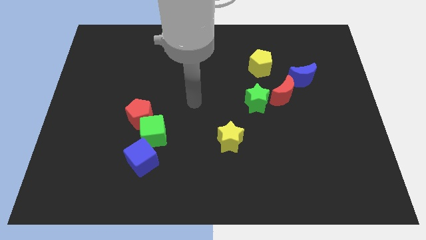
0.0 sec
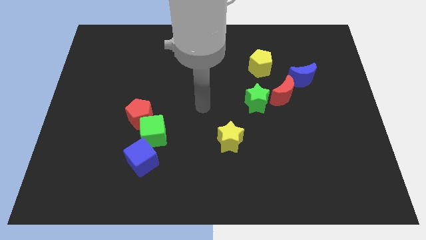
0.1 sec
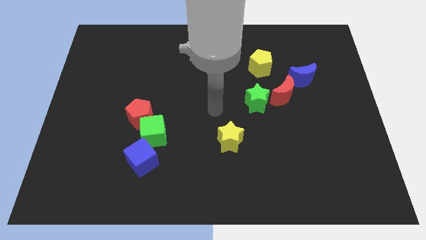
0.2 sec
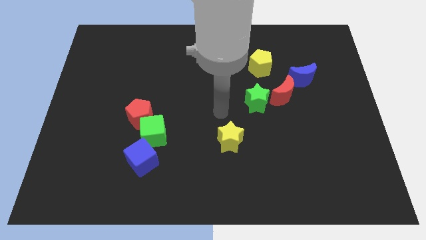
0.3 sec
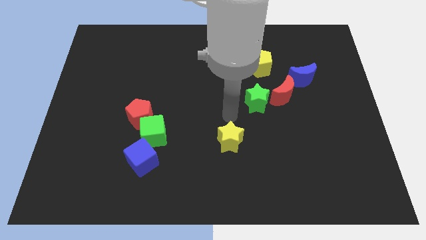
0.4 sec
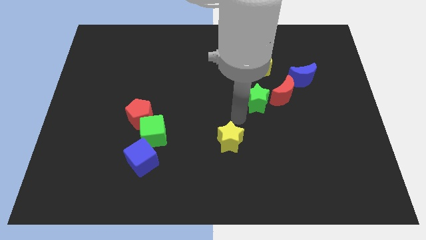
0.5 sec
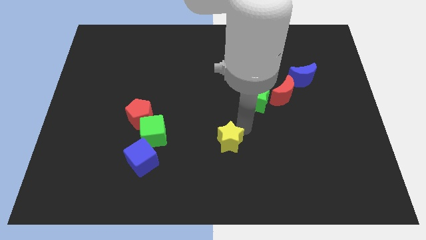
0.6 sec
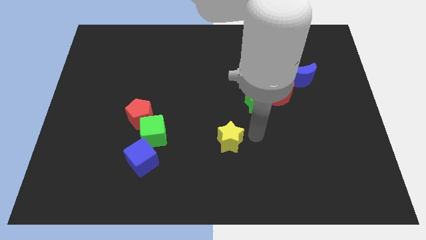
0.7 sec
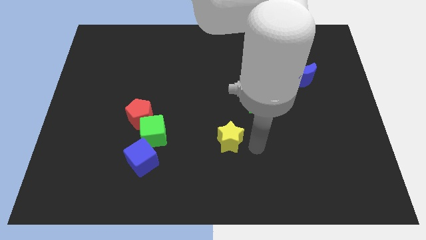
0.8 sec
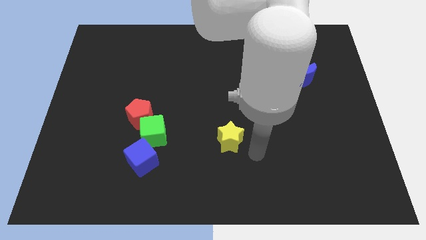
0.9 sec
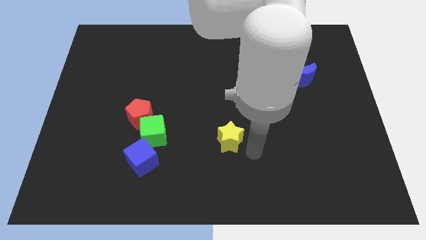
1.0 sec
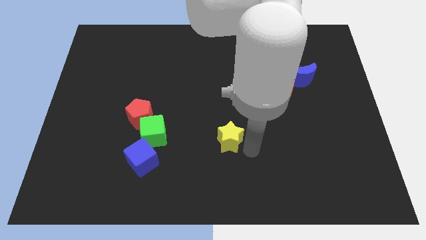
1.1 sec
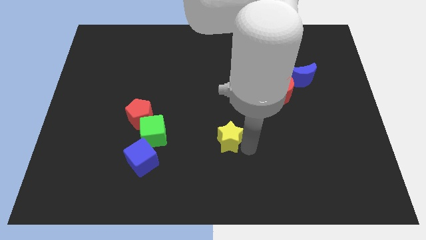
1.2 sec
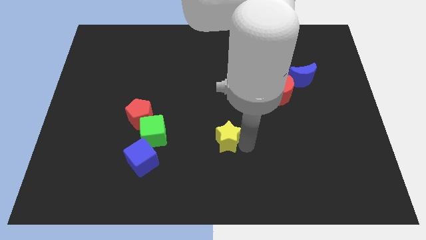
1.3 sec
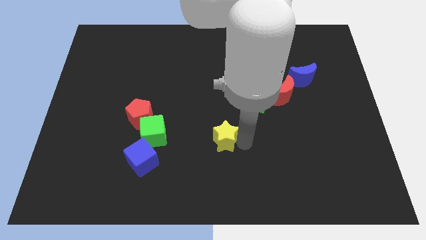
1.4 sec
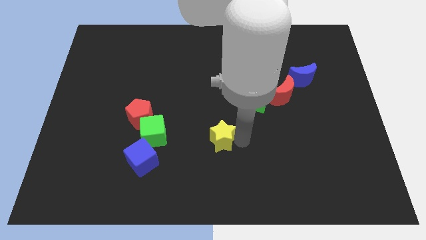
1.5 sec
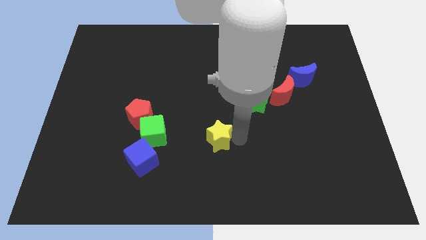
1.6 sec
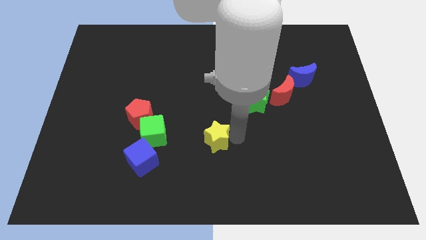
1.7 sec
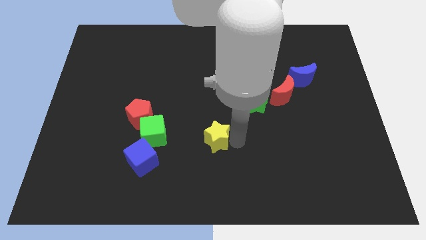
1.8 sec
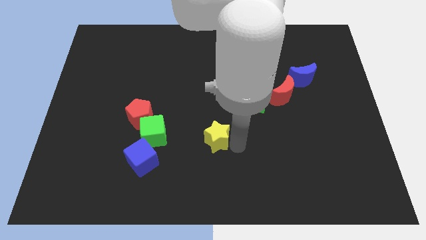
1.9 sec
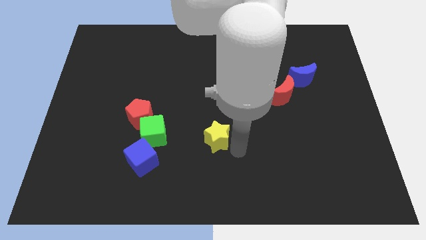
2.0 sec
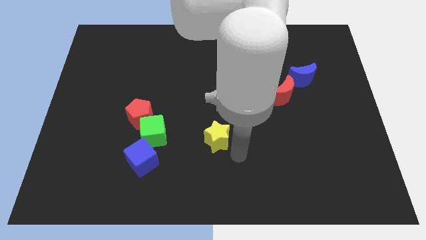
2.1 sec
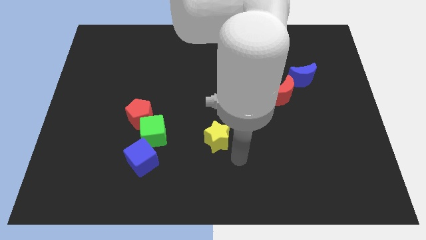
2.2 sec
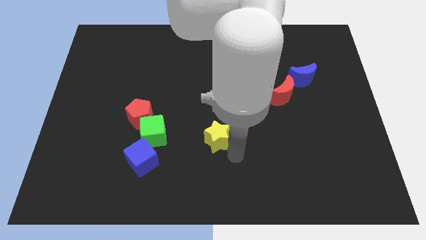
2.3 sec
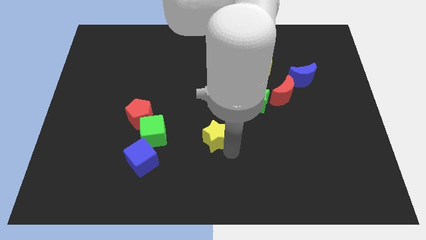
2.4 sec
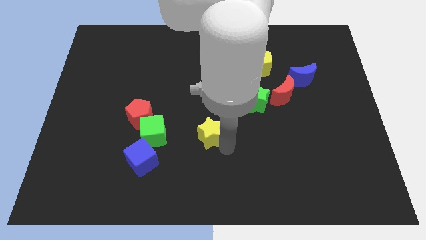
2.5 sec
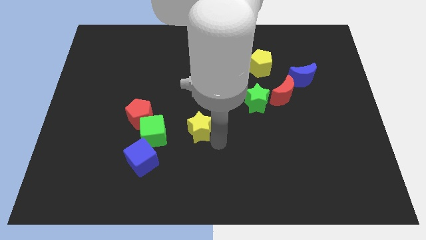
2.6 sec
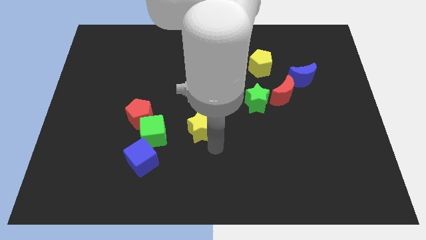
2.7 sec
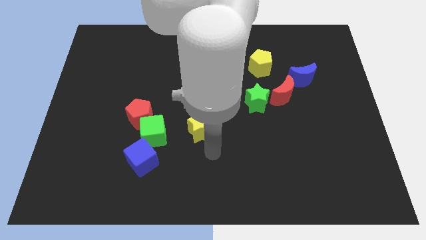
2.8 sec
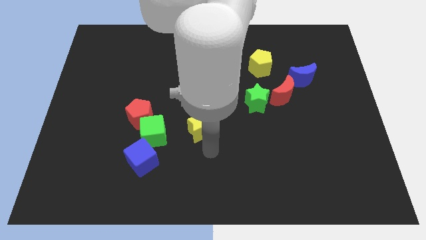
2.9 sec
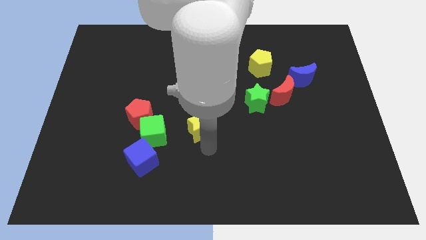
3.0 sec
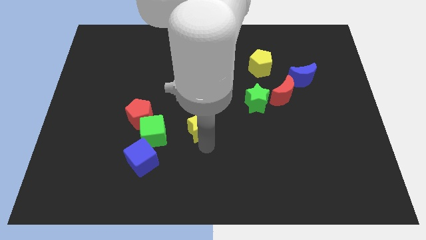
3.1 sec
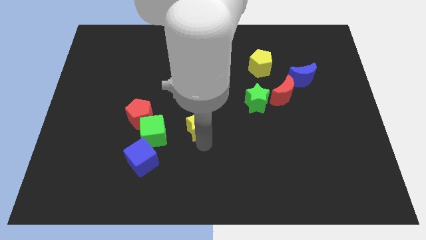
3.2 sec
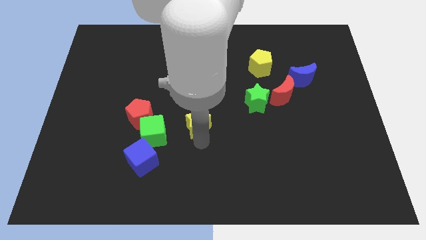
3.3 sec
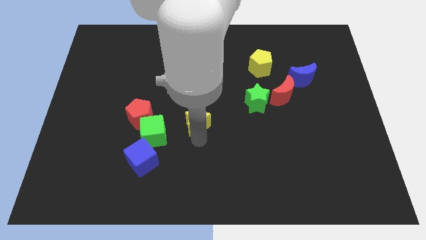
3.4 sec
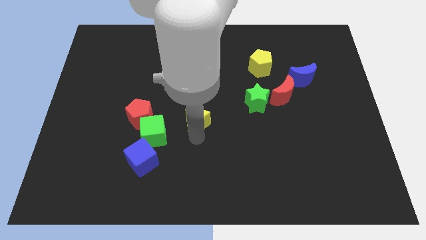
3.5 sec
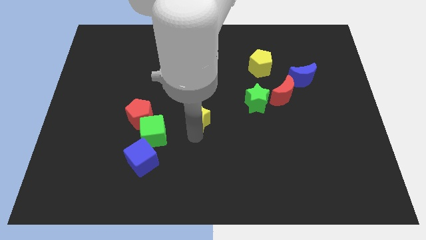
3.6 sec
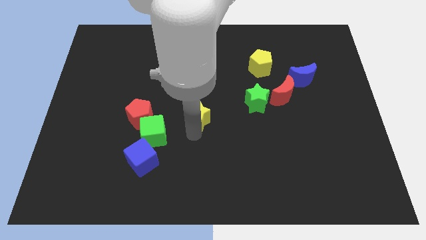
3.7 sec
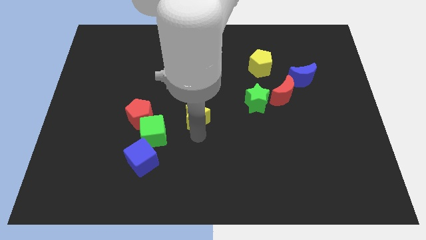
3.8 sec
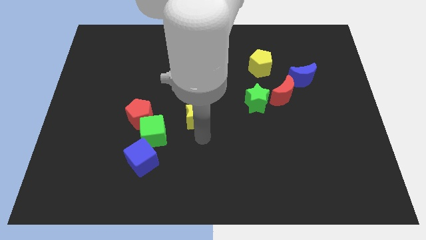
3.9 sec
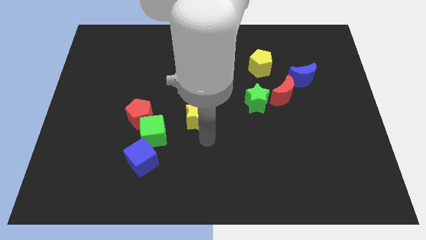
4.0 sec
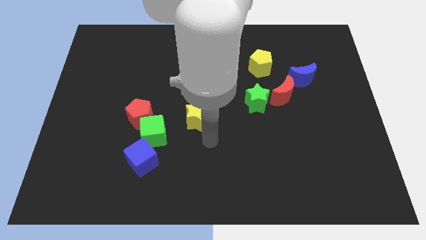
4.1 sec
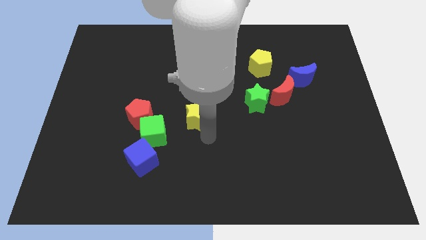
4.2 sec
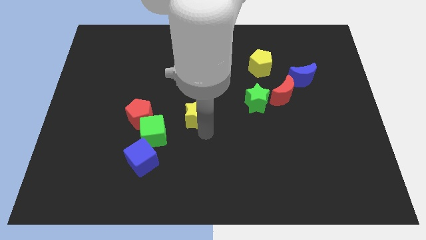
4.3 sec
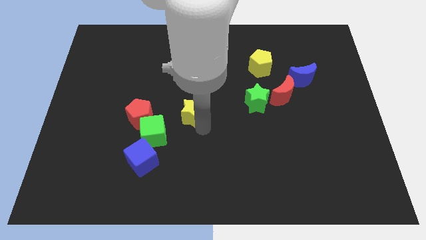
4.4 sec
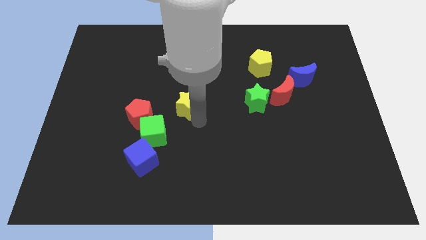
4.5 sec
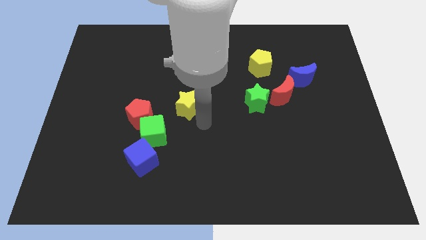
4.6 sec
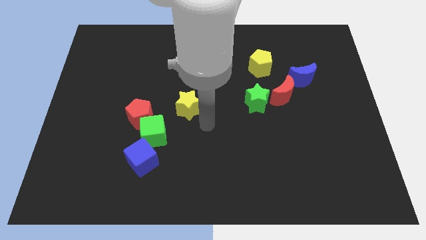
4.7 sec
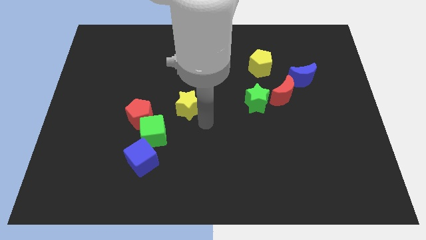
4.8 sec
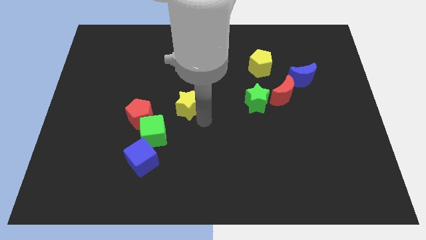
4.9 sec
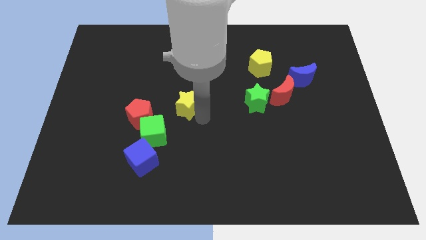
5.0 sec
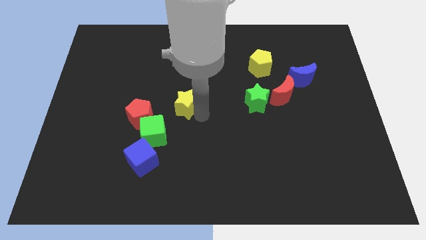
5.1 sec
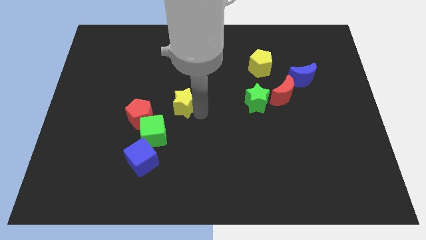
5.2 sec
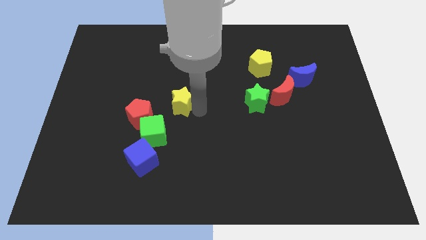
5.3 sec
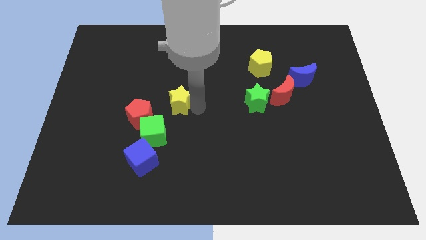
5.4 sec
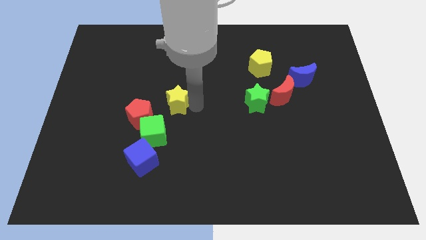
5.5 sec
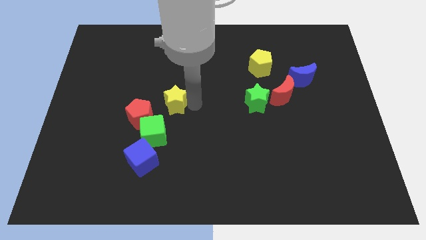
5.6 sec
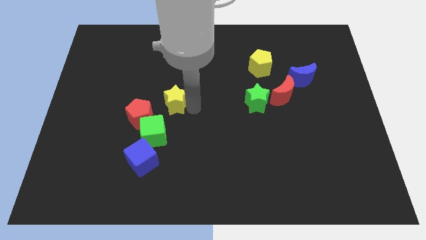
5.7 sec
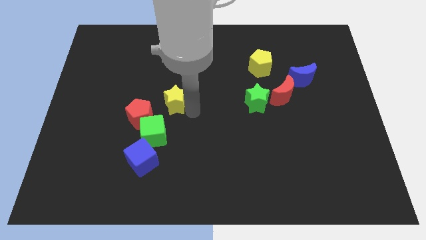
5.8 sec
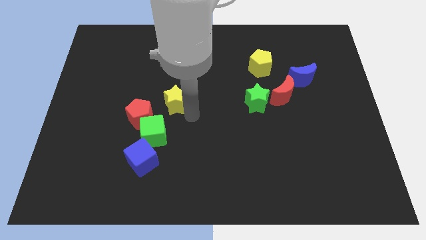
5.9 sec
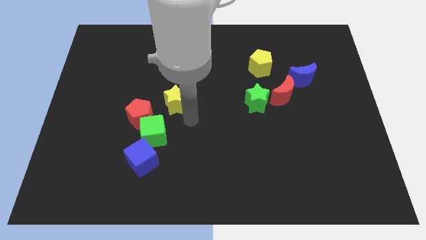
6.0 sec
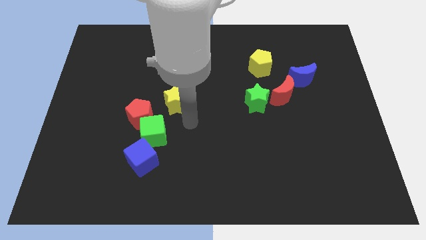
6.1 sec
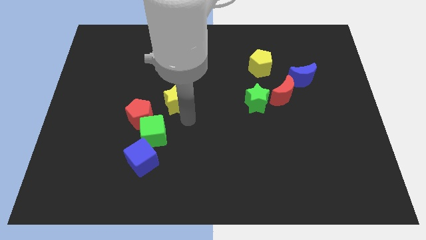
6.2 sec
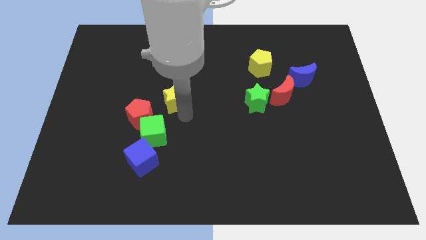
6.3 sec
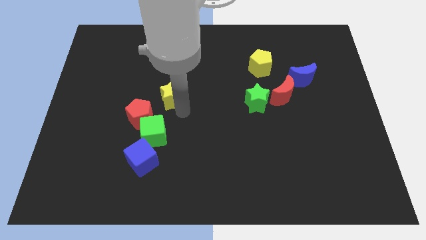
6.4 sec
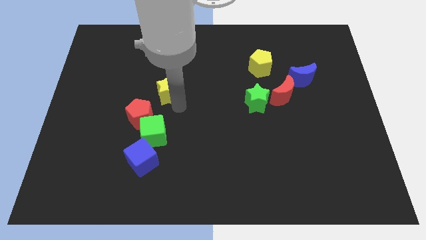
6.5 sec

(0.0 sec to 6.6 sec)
slide the yellow star diagonally up and left

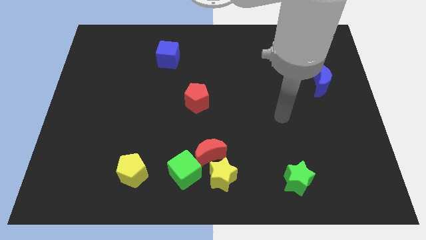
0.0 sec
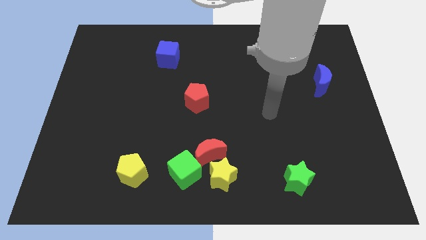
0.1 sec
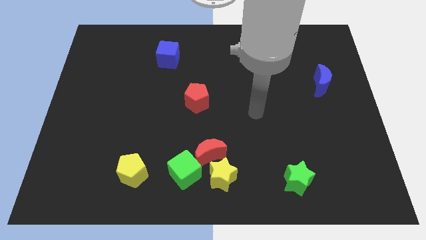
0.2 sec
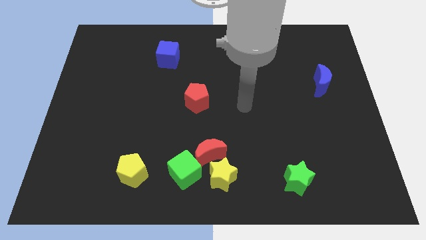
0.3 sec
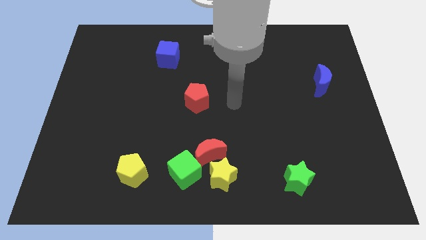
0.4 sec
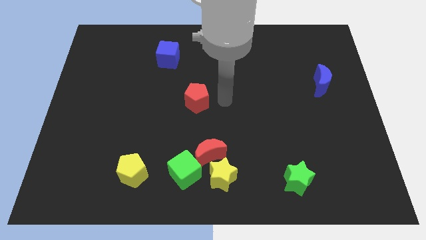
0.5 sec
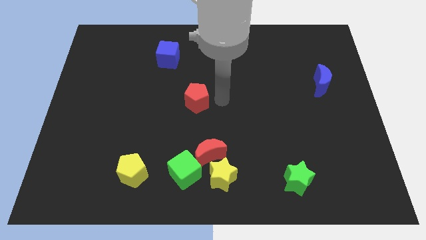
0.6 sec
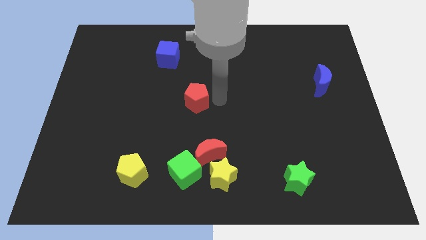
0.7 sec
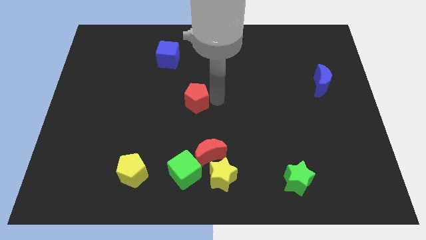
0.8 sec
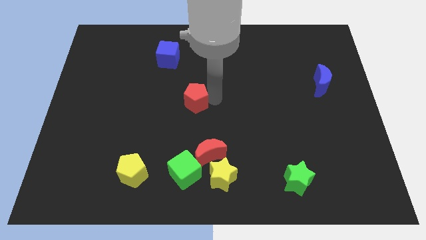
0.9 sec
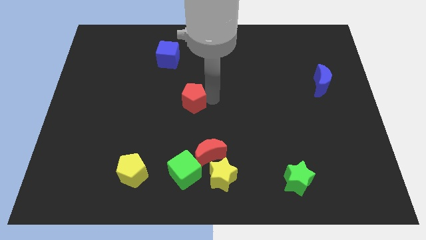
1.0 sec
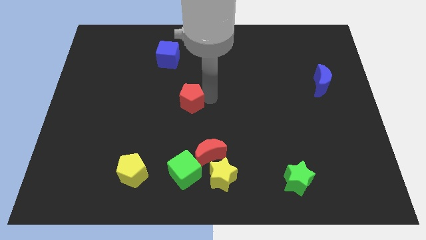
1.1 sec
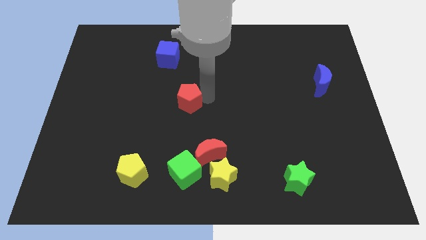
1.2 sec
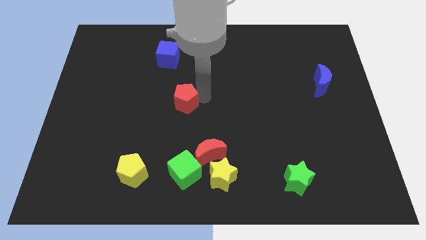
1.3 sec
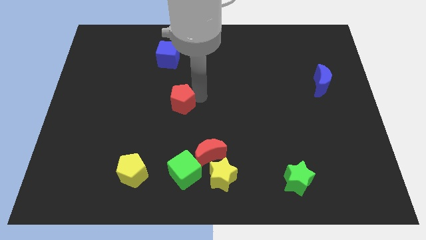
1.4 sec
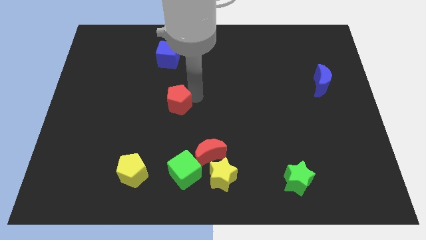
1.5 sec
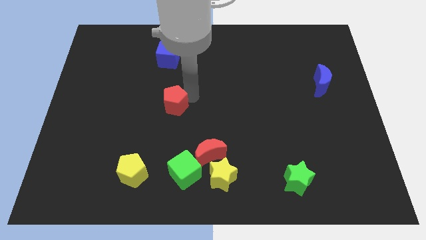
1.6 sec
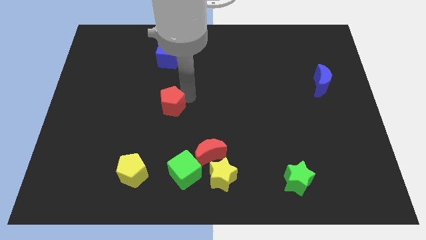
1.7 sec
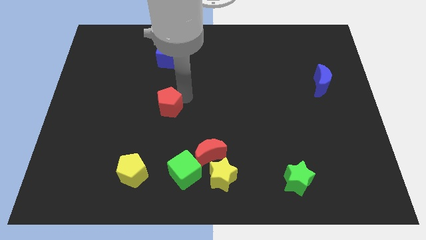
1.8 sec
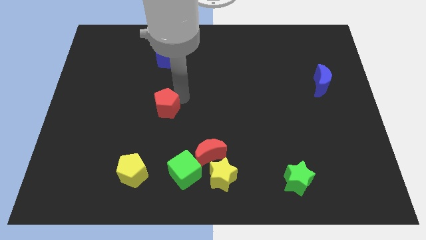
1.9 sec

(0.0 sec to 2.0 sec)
slightly push the red pentagon left
